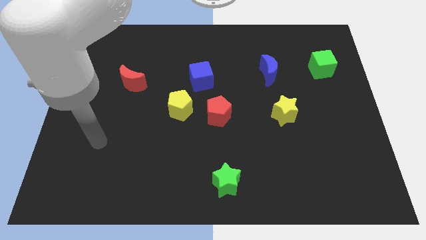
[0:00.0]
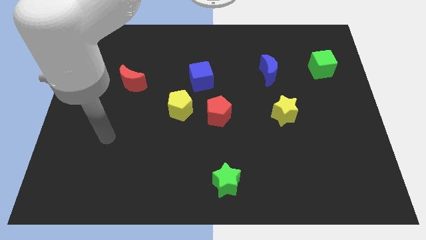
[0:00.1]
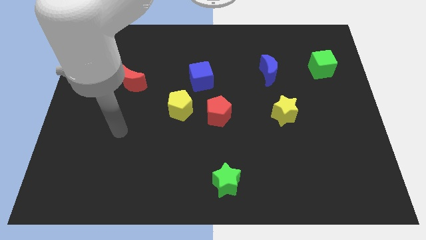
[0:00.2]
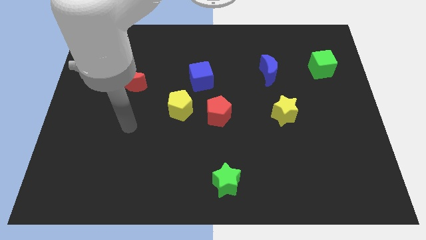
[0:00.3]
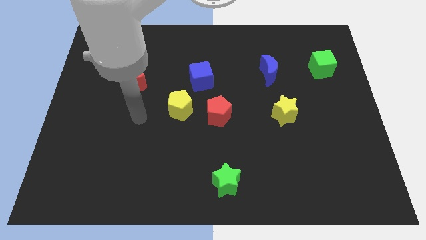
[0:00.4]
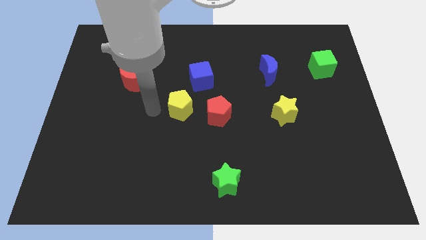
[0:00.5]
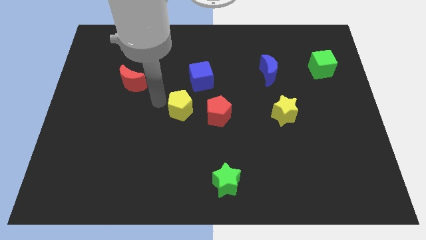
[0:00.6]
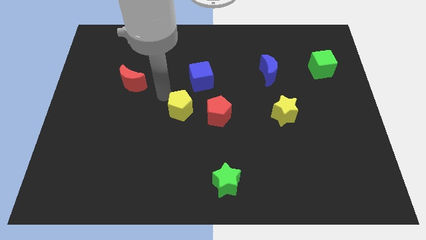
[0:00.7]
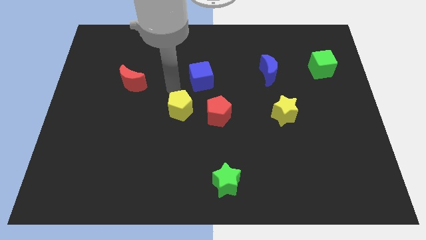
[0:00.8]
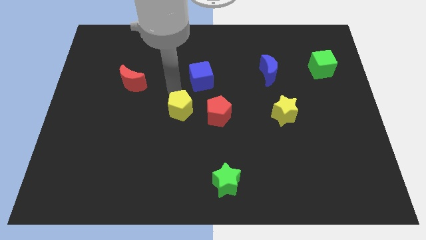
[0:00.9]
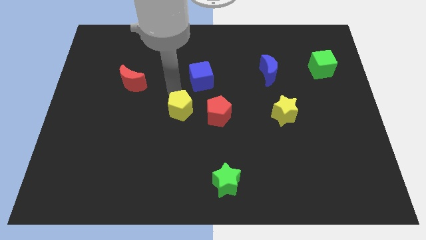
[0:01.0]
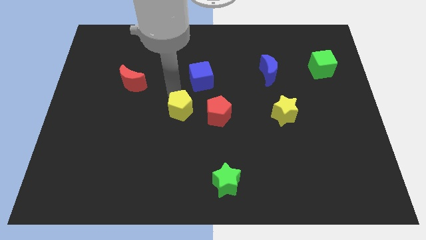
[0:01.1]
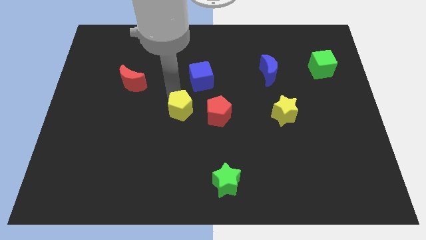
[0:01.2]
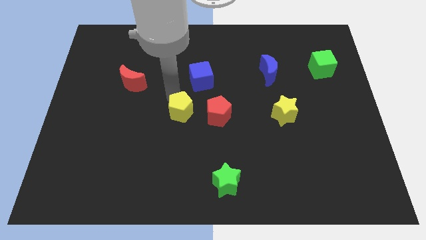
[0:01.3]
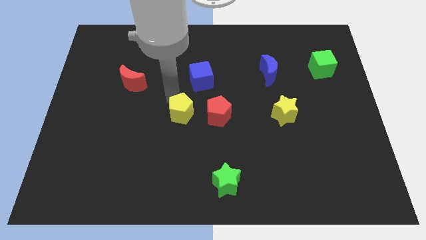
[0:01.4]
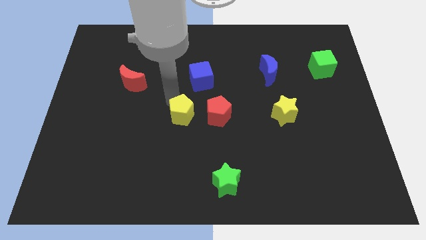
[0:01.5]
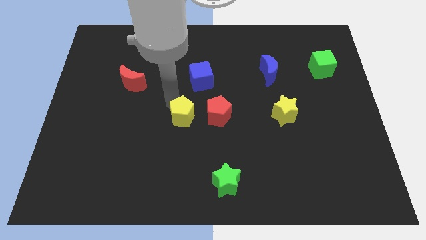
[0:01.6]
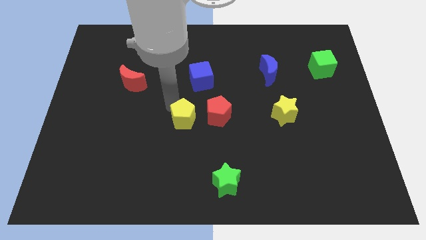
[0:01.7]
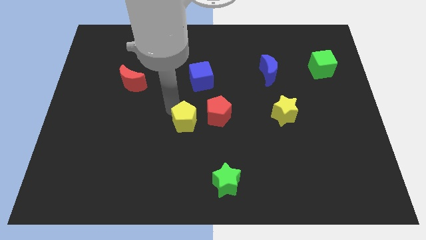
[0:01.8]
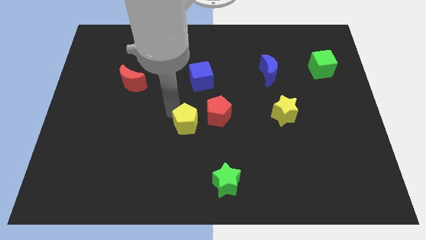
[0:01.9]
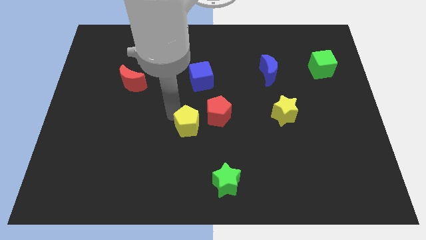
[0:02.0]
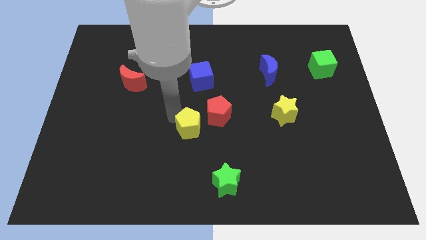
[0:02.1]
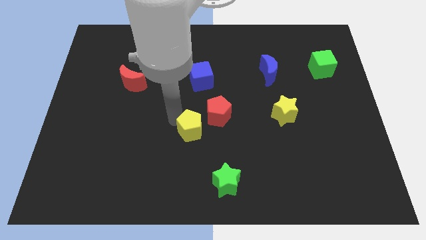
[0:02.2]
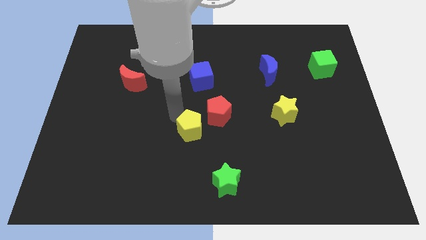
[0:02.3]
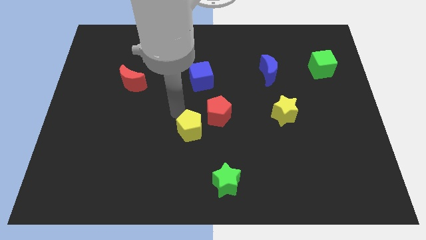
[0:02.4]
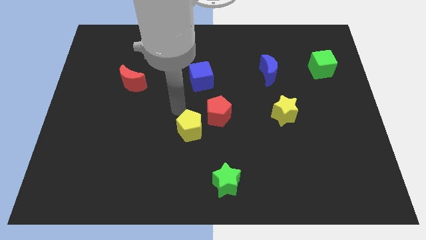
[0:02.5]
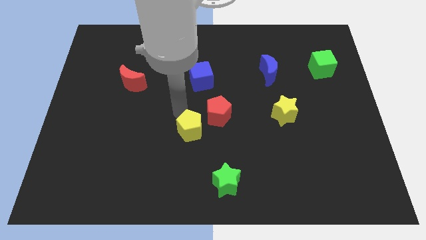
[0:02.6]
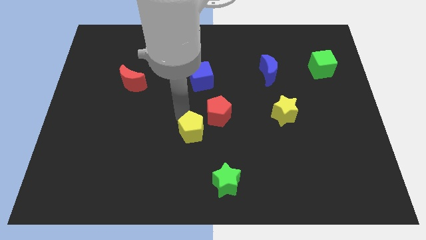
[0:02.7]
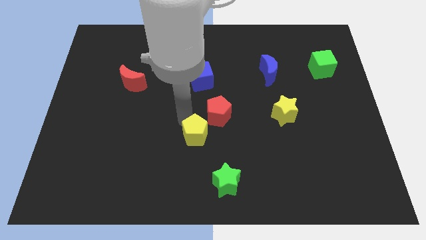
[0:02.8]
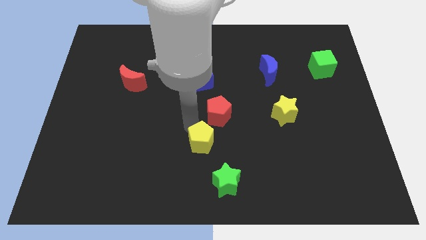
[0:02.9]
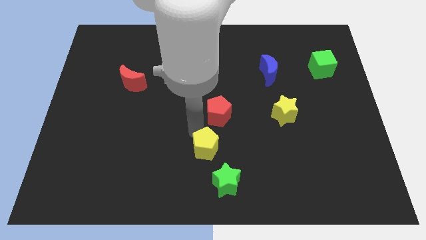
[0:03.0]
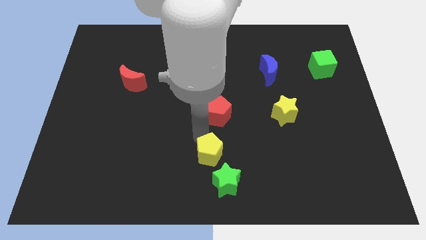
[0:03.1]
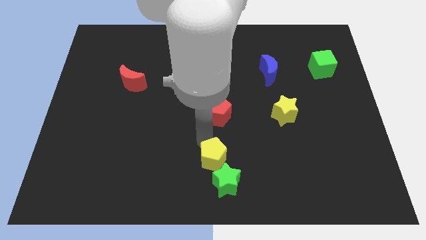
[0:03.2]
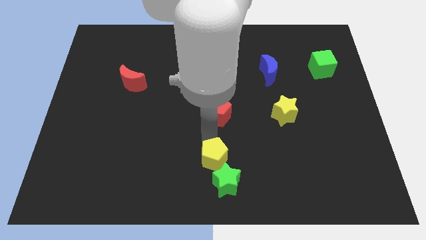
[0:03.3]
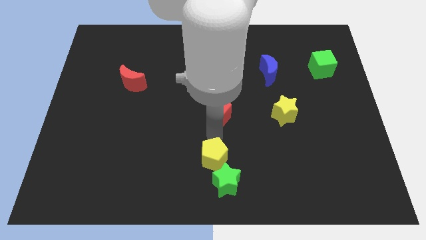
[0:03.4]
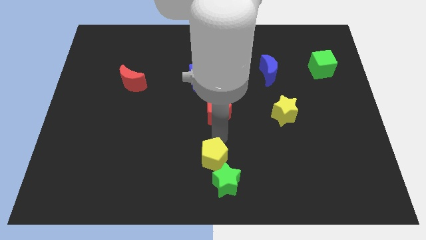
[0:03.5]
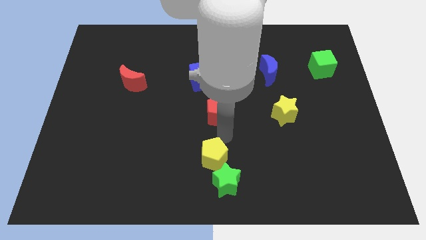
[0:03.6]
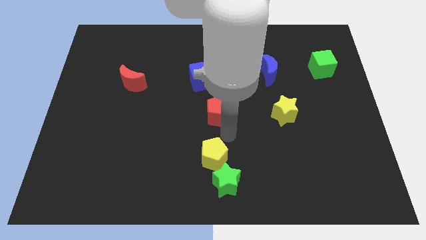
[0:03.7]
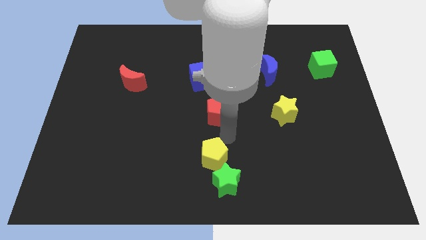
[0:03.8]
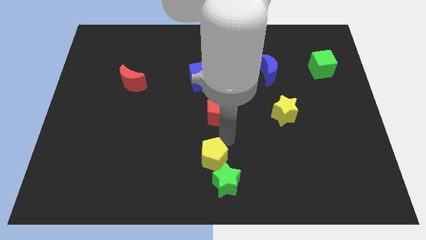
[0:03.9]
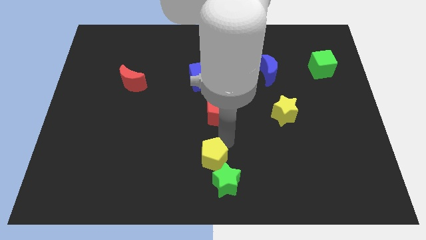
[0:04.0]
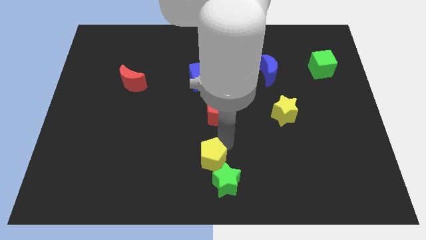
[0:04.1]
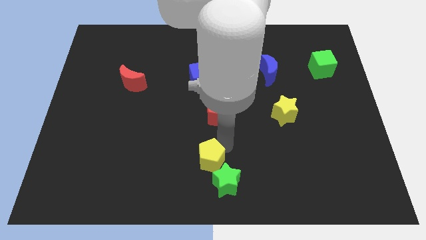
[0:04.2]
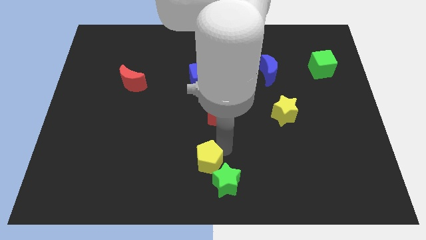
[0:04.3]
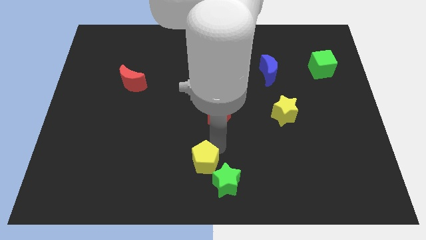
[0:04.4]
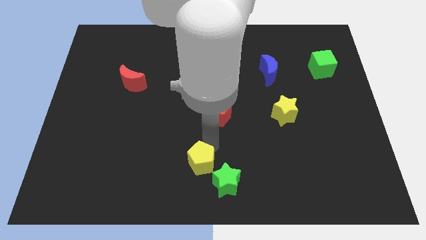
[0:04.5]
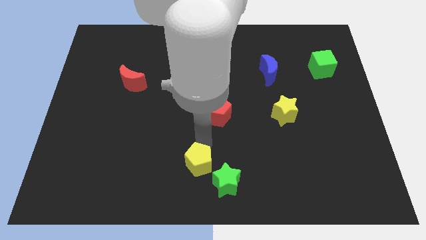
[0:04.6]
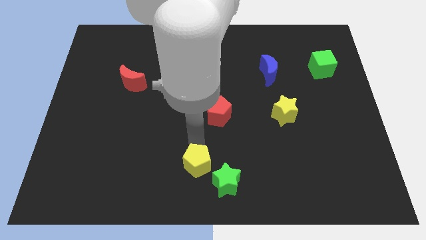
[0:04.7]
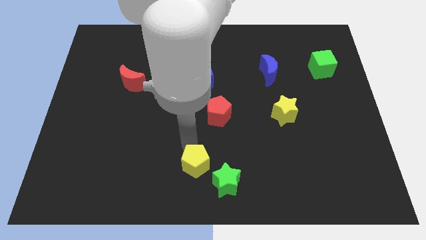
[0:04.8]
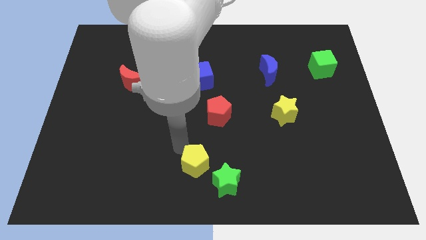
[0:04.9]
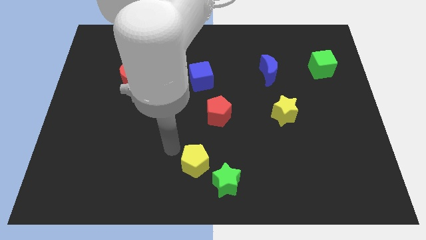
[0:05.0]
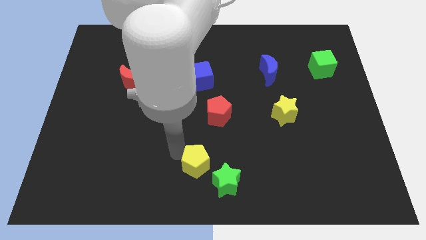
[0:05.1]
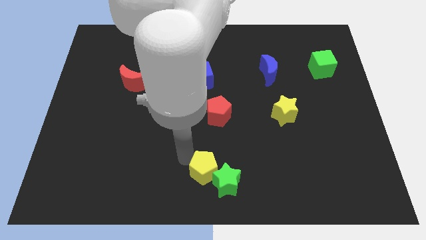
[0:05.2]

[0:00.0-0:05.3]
slide the yellow pentagon next to the green star

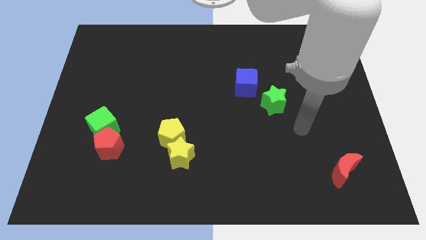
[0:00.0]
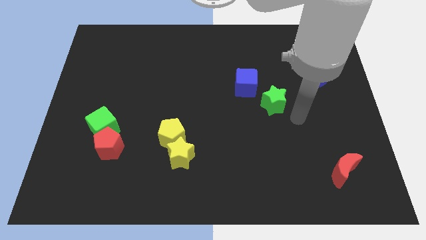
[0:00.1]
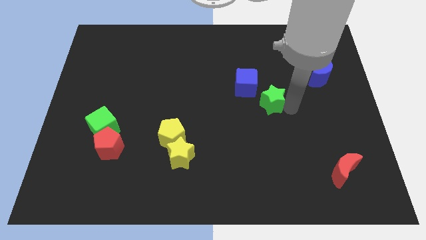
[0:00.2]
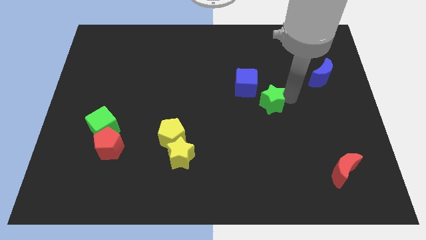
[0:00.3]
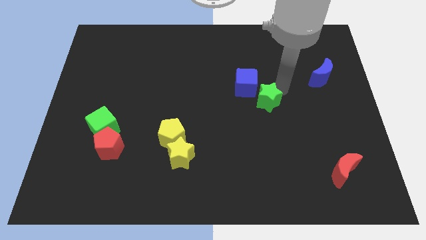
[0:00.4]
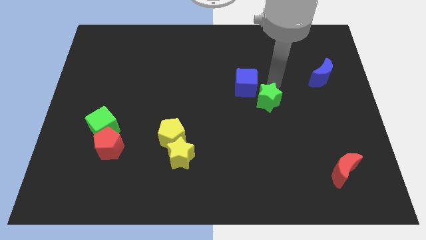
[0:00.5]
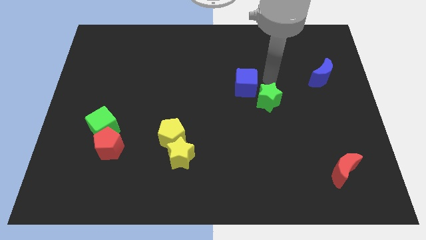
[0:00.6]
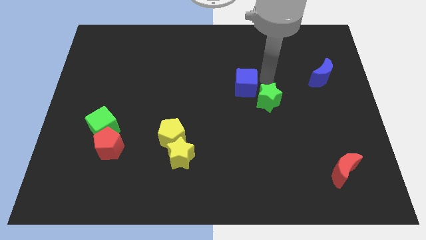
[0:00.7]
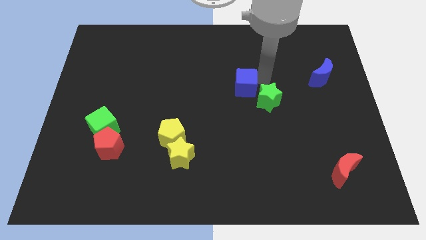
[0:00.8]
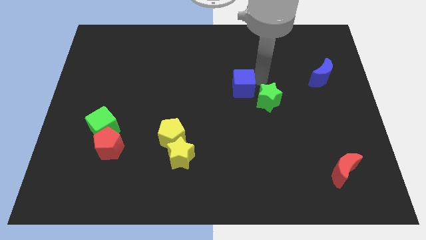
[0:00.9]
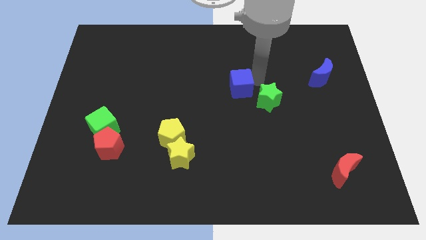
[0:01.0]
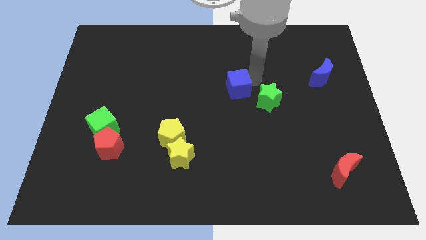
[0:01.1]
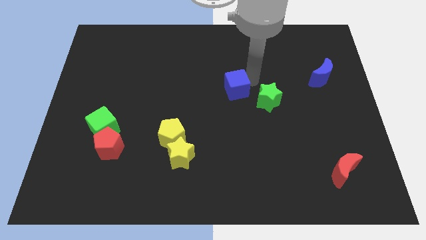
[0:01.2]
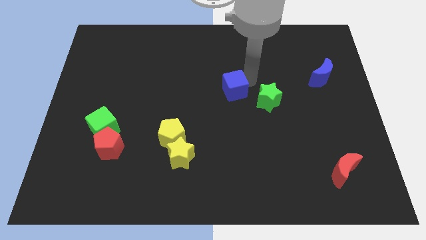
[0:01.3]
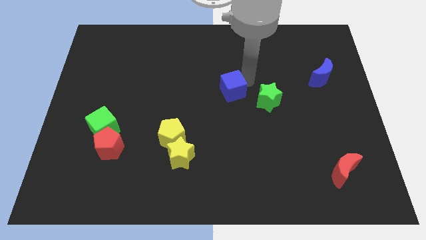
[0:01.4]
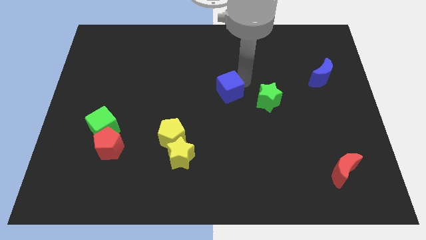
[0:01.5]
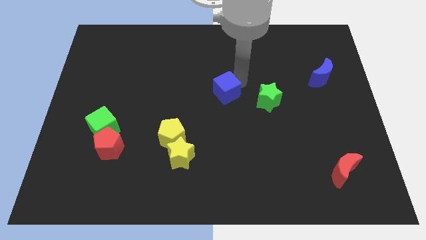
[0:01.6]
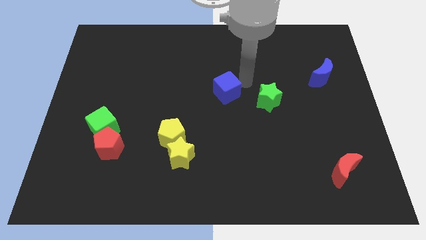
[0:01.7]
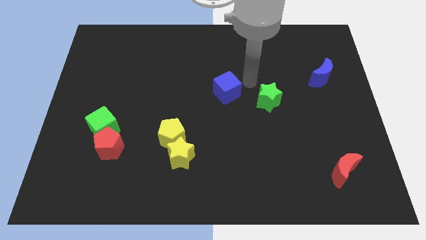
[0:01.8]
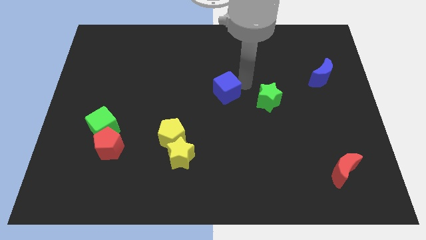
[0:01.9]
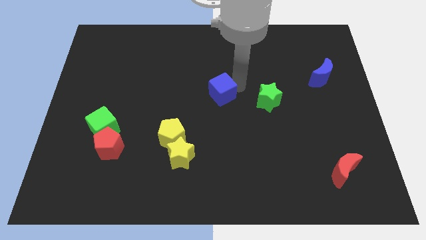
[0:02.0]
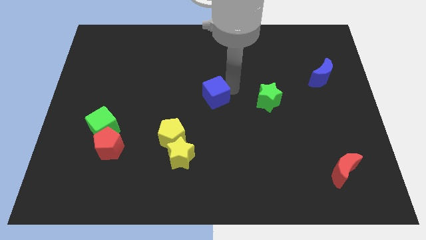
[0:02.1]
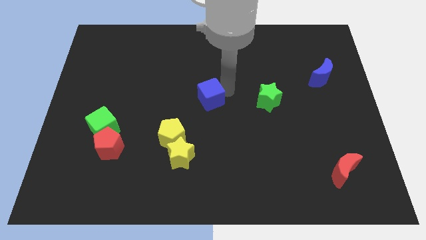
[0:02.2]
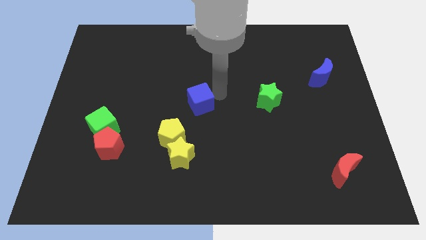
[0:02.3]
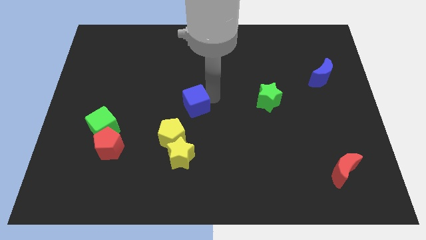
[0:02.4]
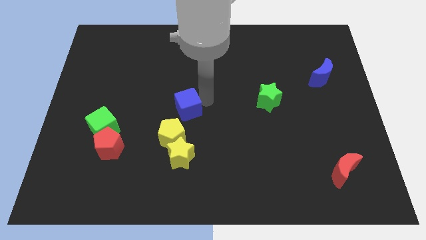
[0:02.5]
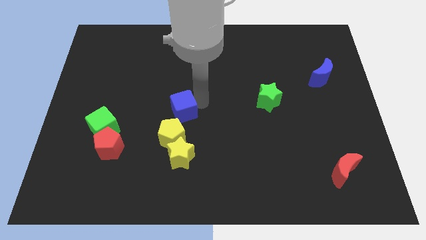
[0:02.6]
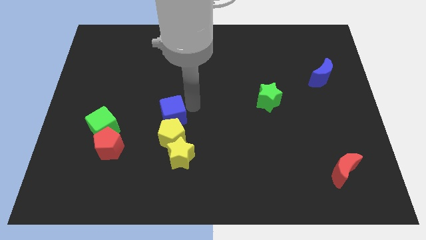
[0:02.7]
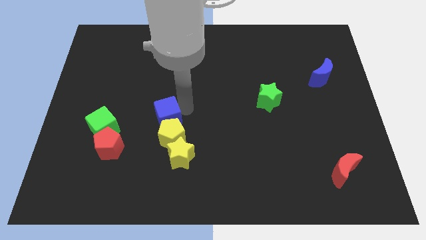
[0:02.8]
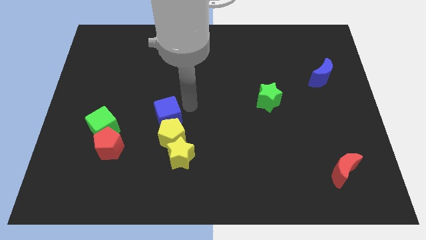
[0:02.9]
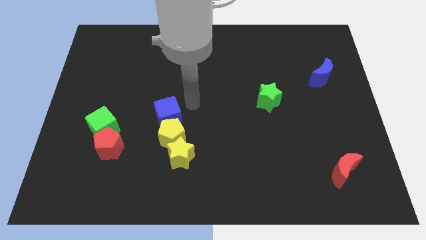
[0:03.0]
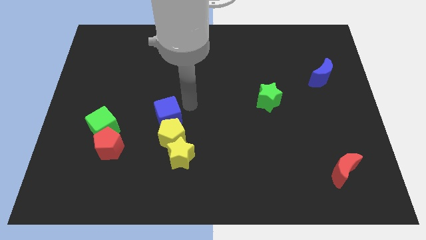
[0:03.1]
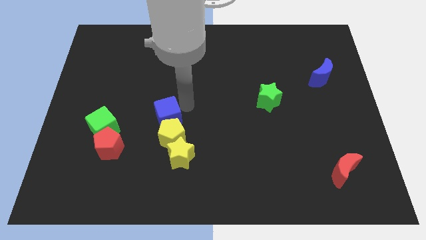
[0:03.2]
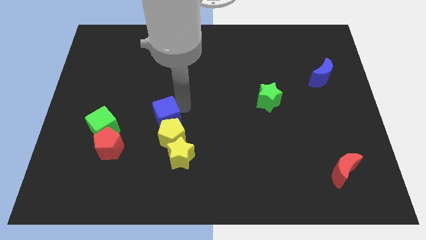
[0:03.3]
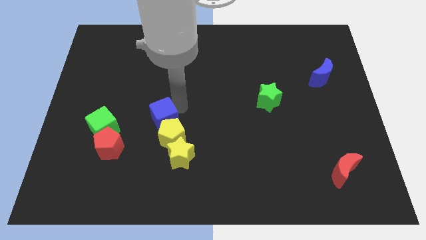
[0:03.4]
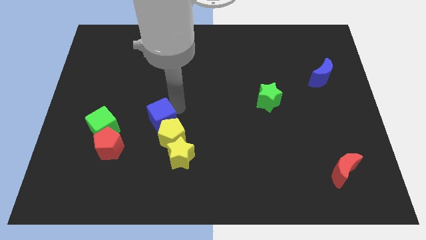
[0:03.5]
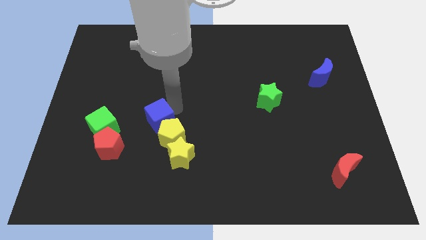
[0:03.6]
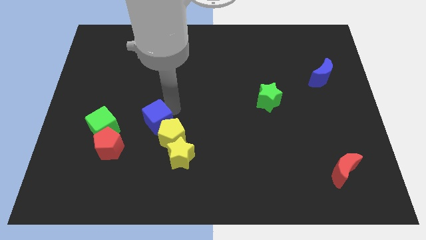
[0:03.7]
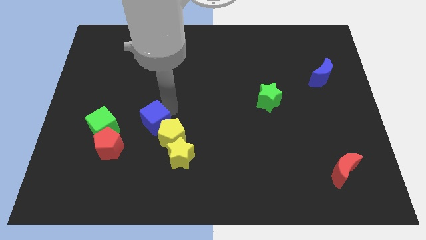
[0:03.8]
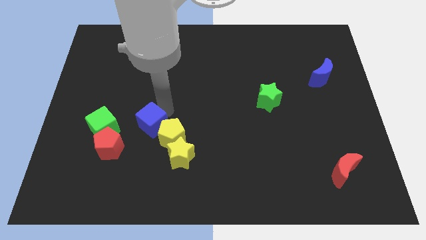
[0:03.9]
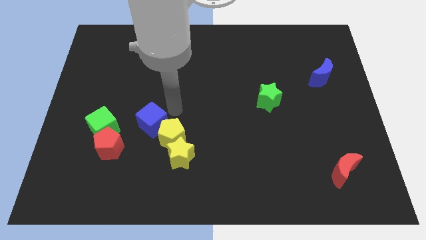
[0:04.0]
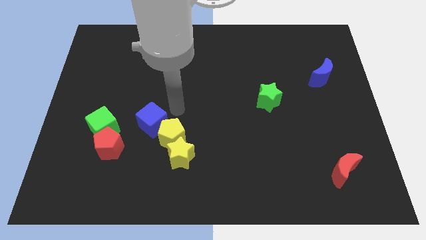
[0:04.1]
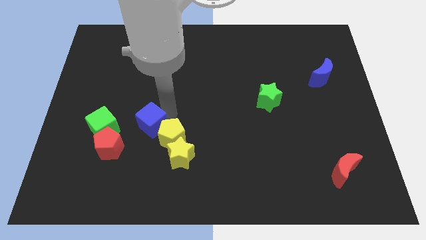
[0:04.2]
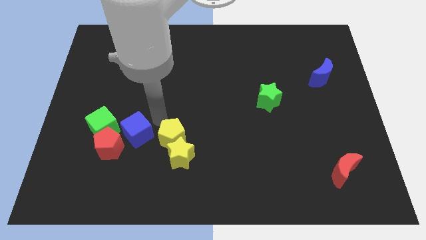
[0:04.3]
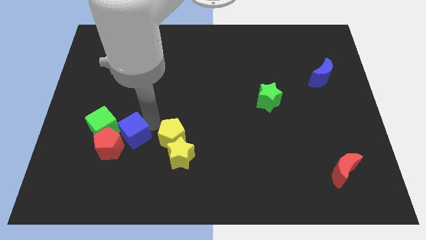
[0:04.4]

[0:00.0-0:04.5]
push the blue cube next to the red pentagon
